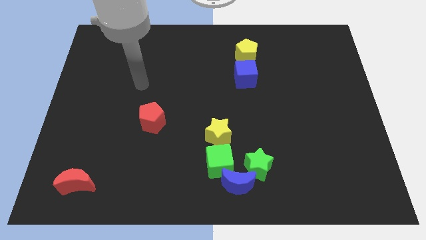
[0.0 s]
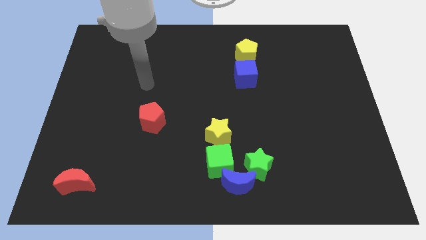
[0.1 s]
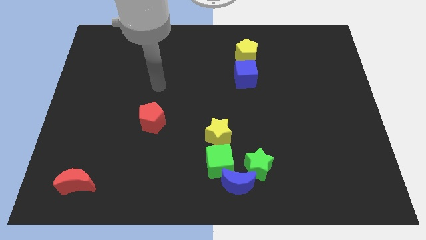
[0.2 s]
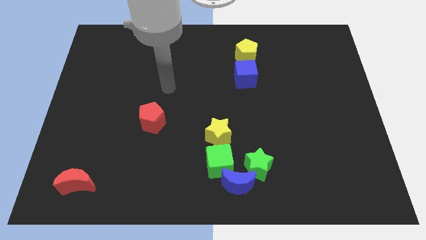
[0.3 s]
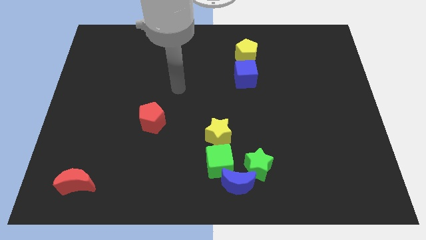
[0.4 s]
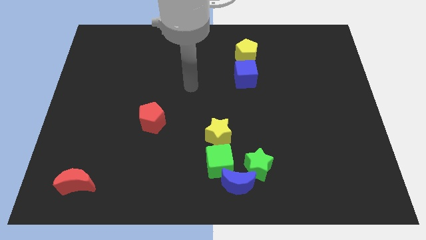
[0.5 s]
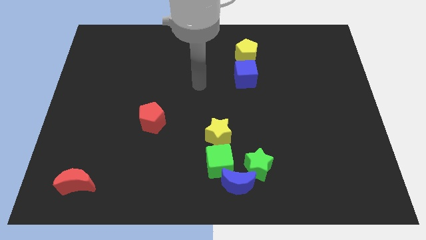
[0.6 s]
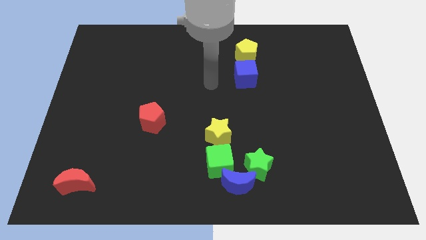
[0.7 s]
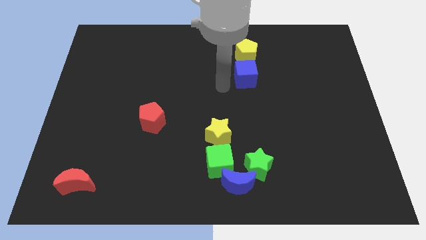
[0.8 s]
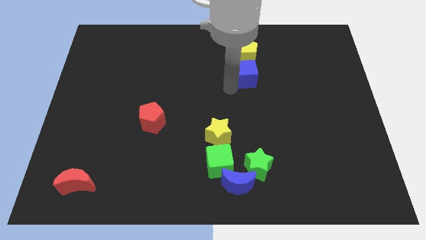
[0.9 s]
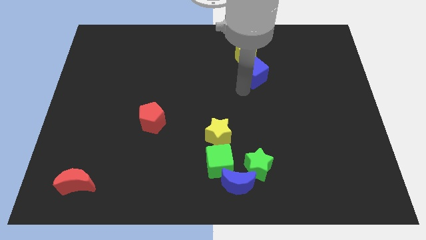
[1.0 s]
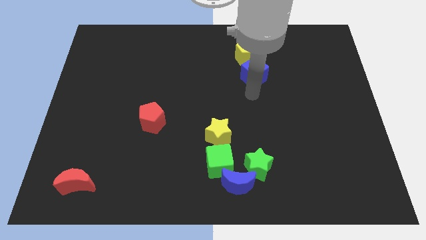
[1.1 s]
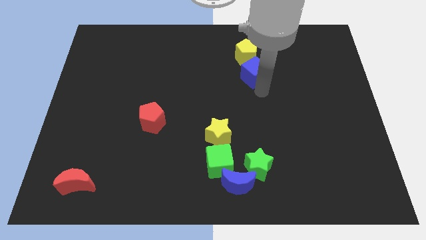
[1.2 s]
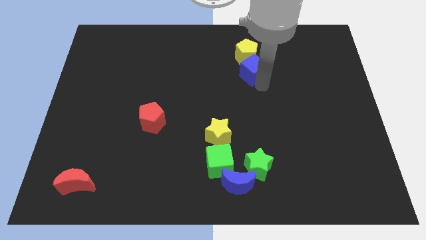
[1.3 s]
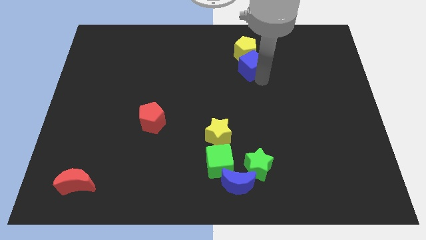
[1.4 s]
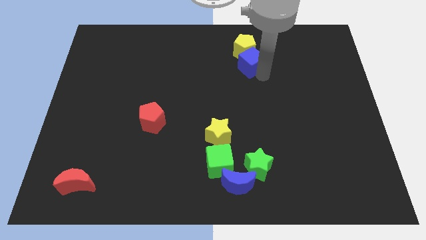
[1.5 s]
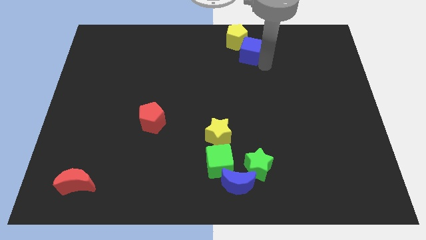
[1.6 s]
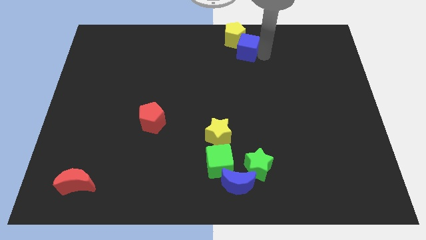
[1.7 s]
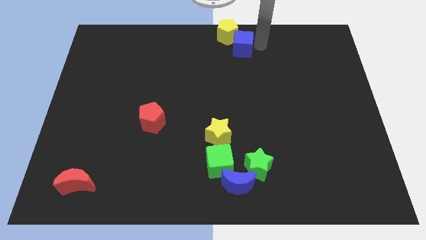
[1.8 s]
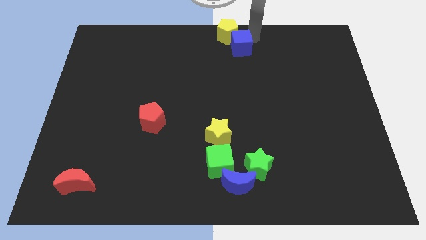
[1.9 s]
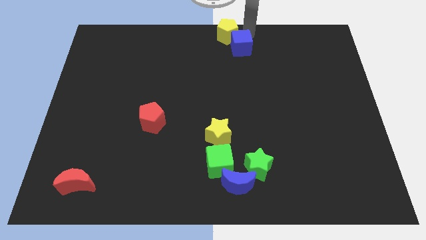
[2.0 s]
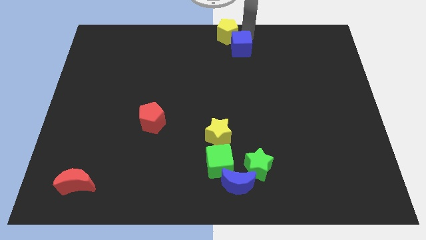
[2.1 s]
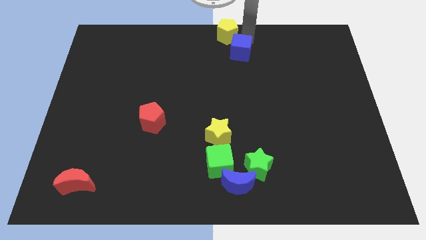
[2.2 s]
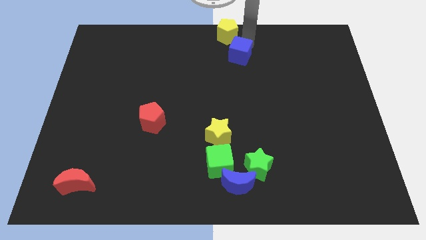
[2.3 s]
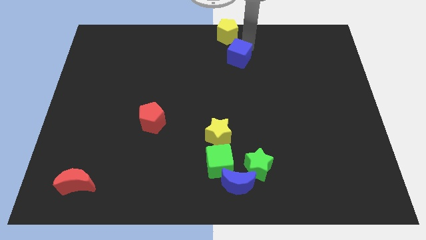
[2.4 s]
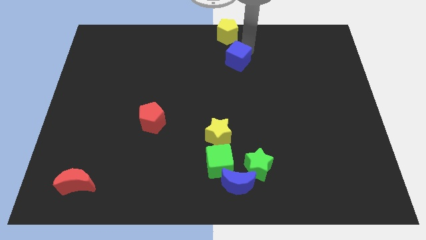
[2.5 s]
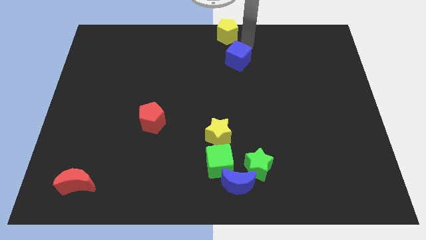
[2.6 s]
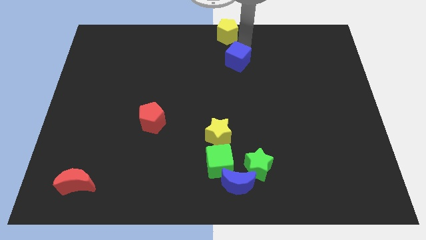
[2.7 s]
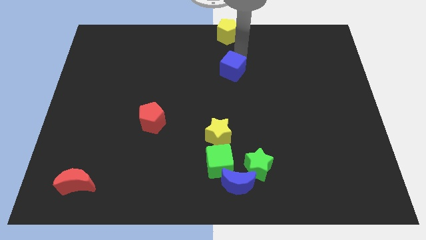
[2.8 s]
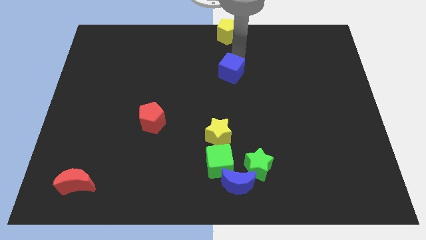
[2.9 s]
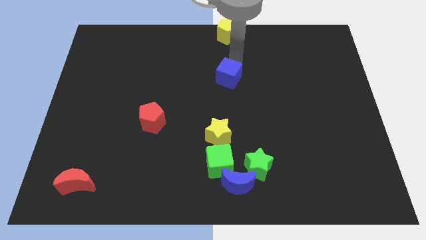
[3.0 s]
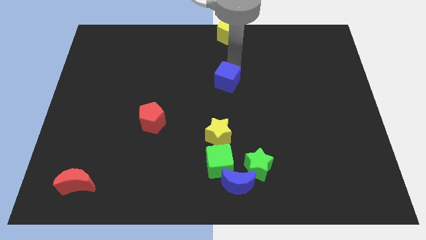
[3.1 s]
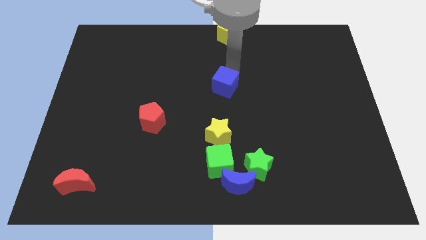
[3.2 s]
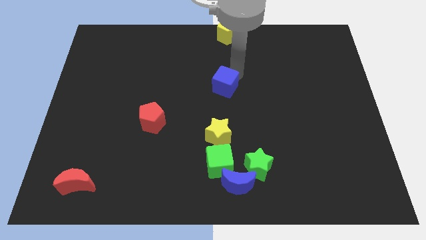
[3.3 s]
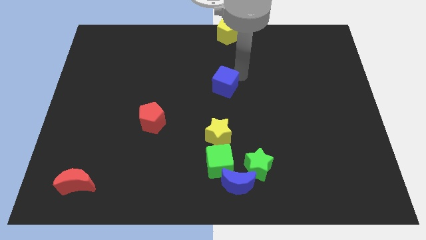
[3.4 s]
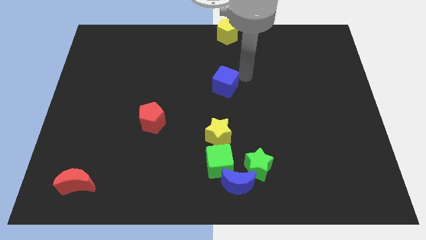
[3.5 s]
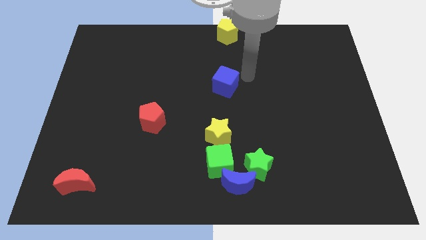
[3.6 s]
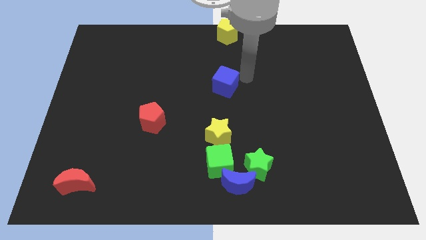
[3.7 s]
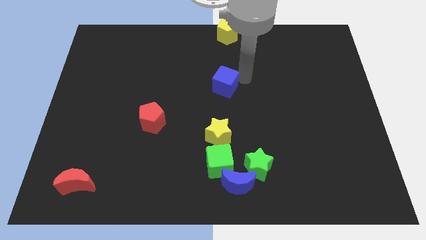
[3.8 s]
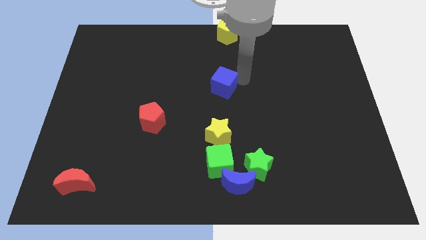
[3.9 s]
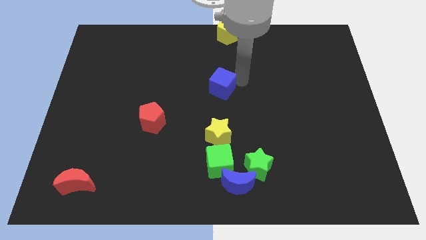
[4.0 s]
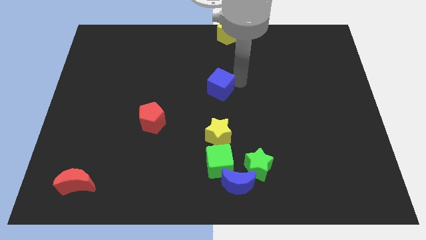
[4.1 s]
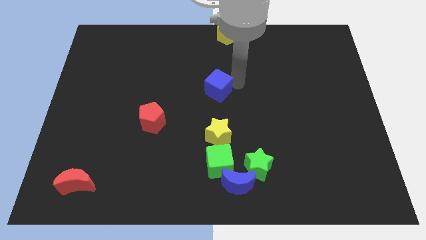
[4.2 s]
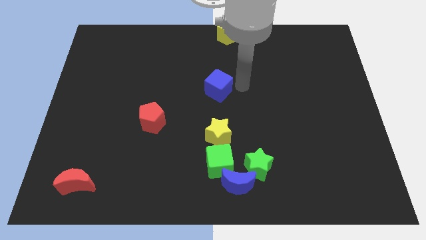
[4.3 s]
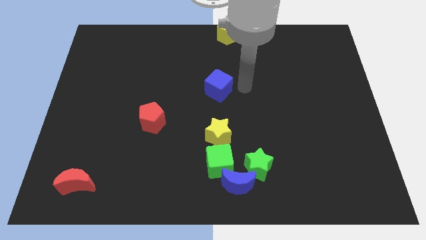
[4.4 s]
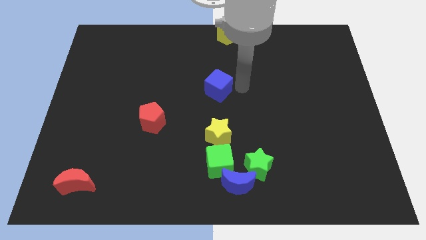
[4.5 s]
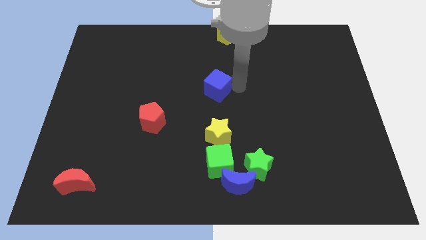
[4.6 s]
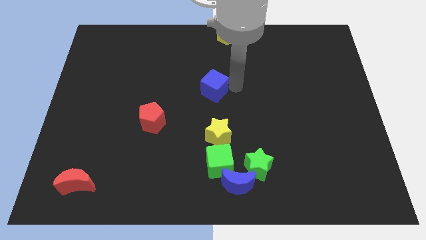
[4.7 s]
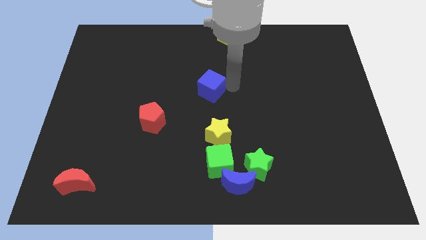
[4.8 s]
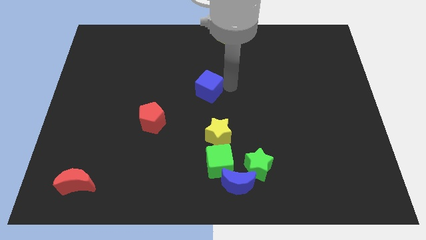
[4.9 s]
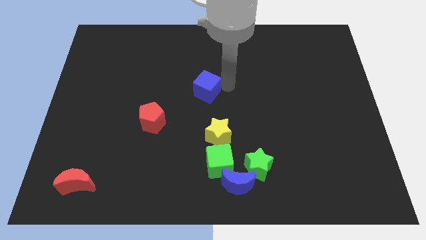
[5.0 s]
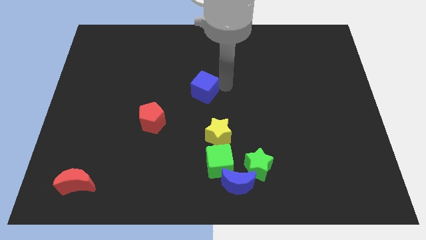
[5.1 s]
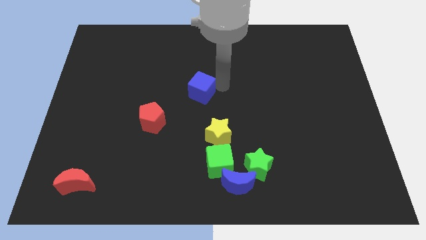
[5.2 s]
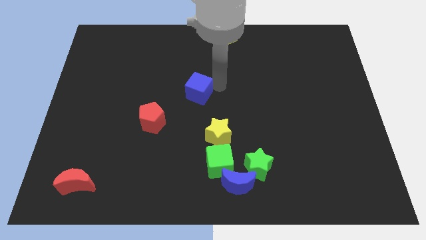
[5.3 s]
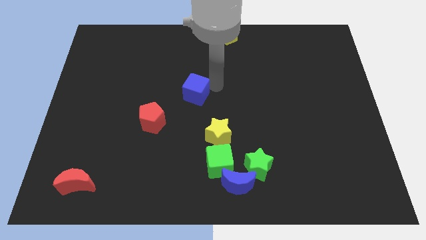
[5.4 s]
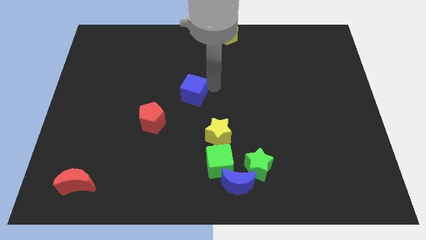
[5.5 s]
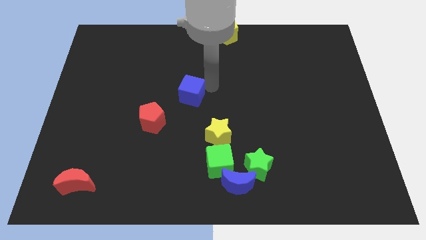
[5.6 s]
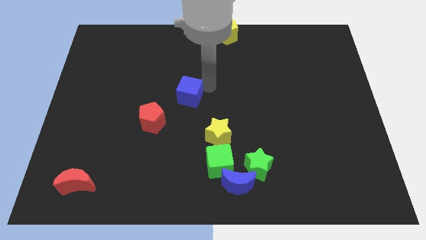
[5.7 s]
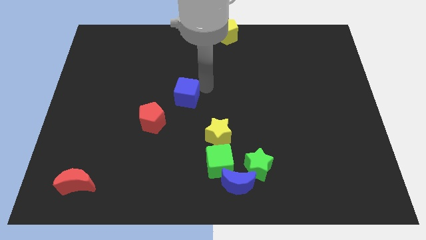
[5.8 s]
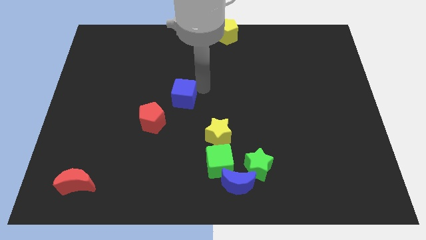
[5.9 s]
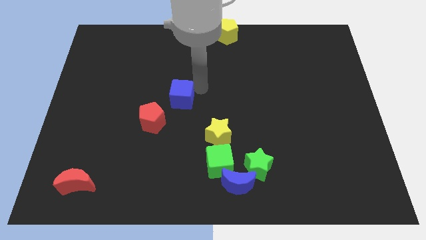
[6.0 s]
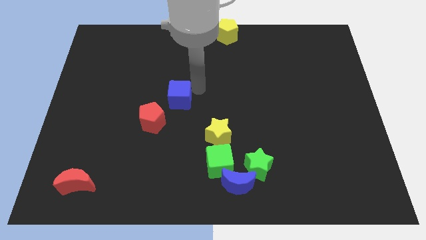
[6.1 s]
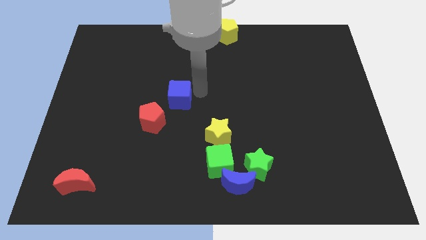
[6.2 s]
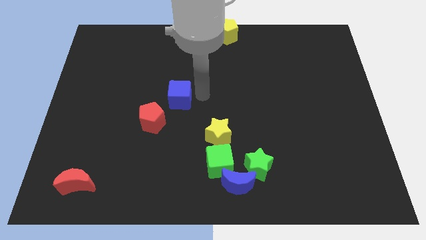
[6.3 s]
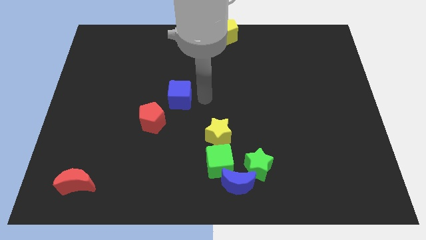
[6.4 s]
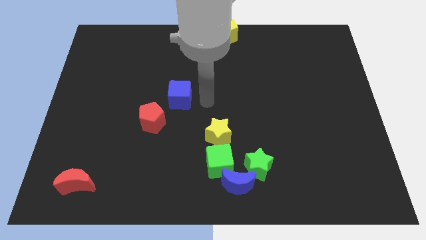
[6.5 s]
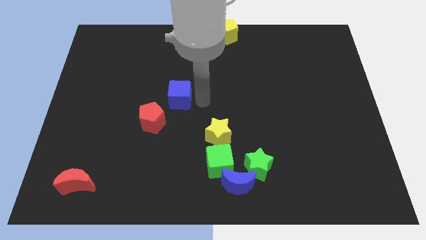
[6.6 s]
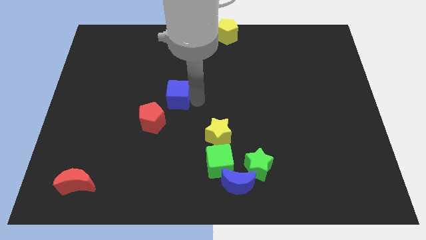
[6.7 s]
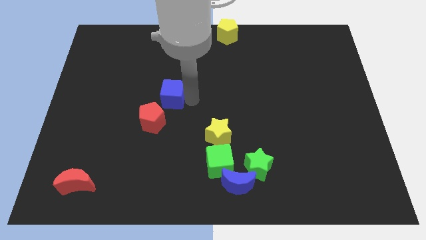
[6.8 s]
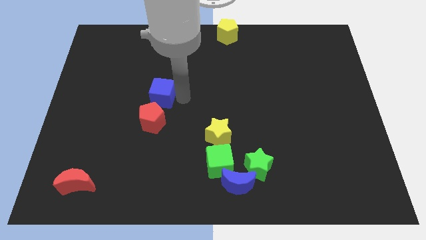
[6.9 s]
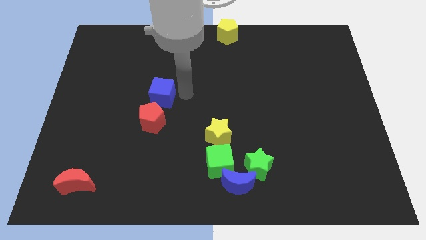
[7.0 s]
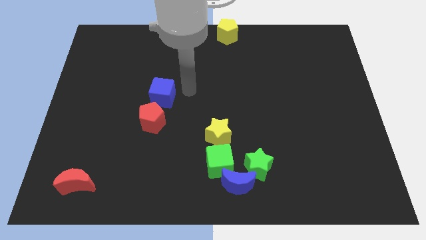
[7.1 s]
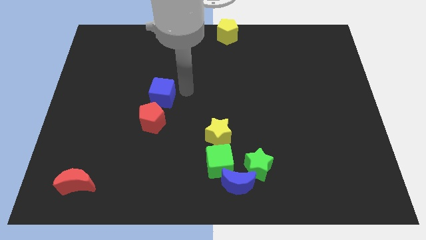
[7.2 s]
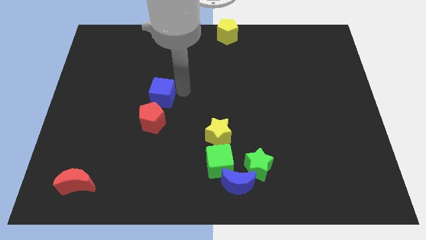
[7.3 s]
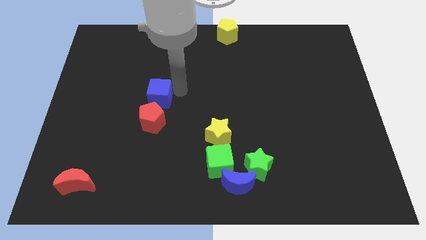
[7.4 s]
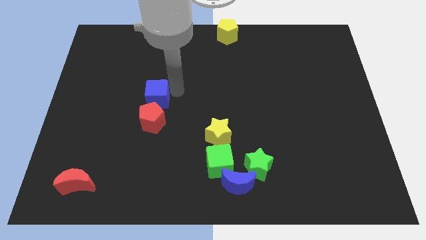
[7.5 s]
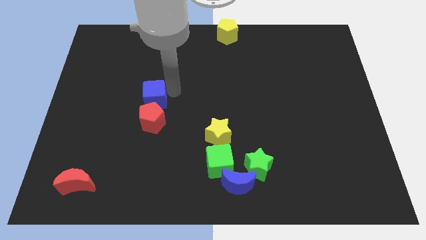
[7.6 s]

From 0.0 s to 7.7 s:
move the blue cube to the top left of the red pentagon
